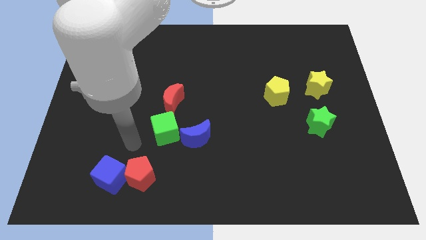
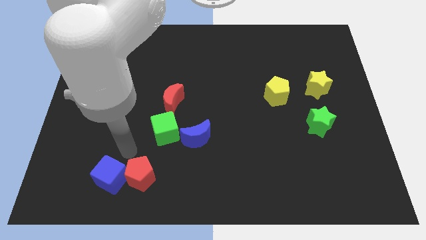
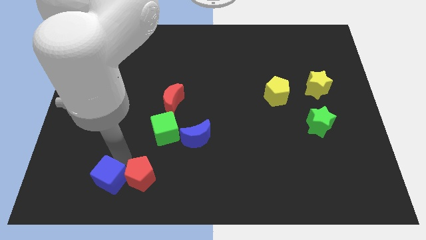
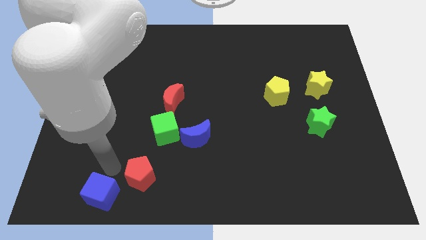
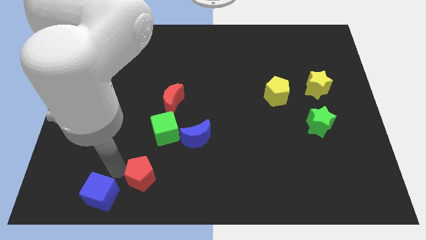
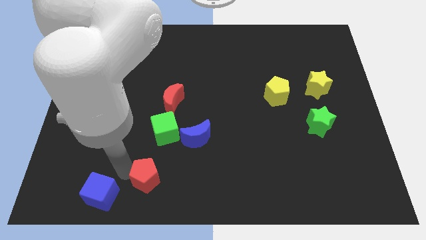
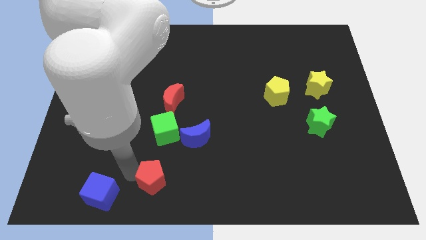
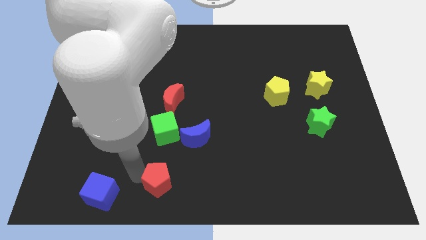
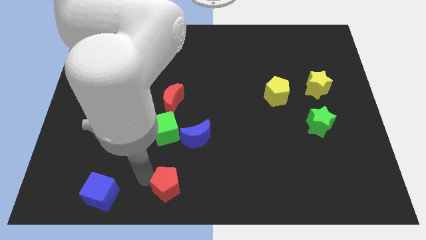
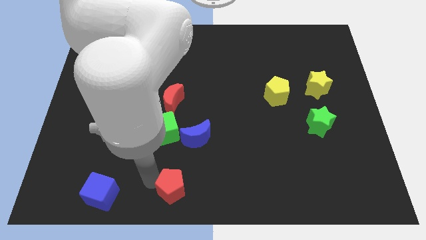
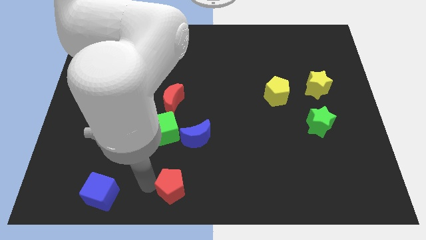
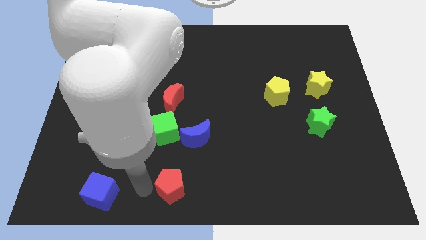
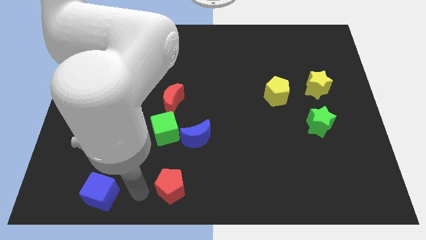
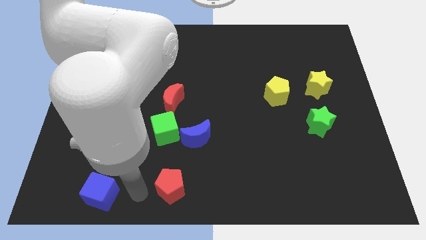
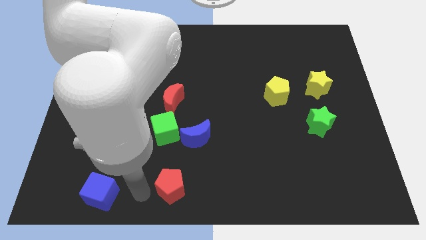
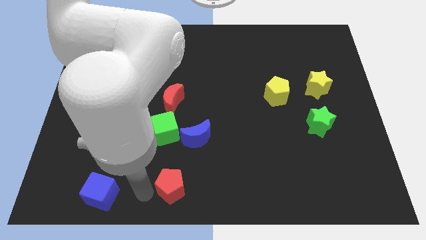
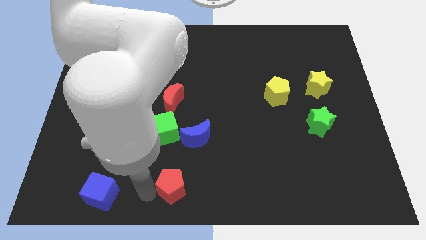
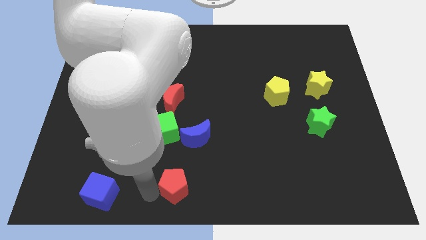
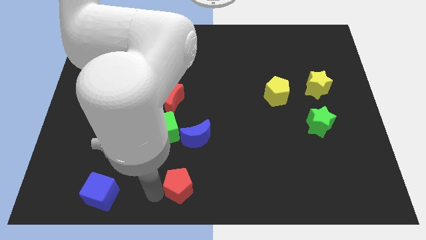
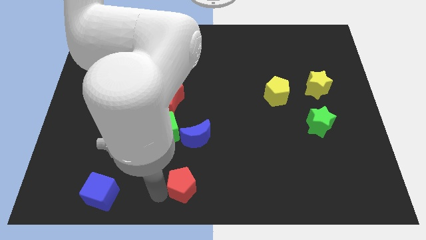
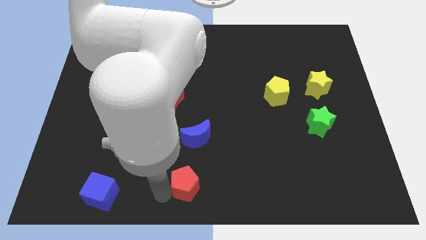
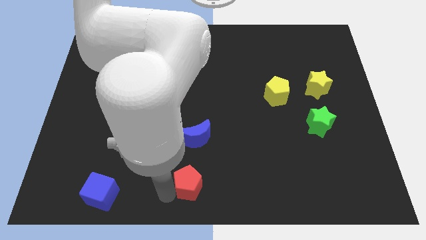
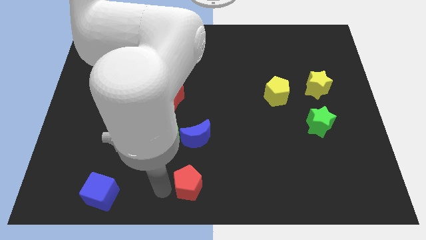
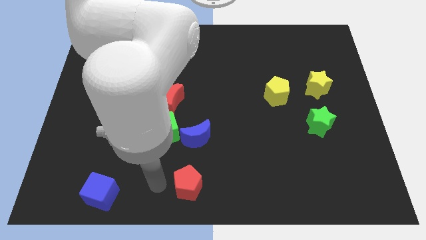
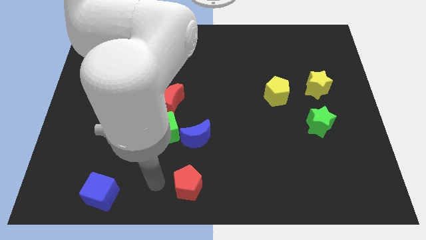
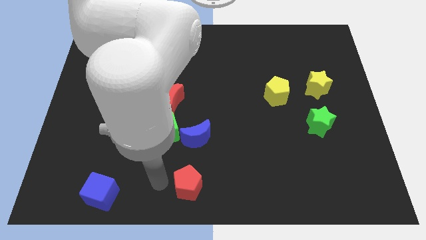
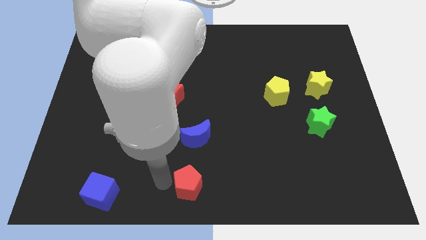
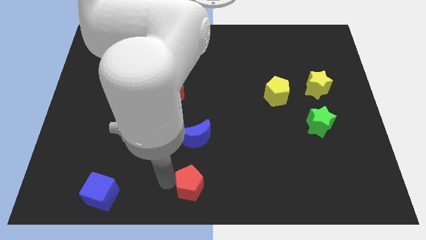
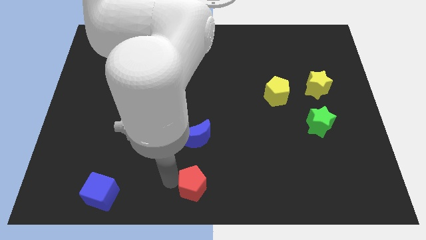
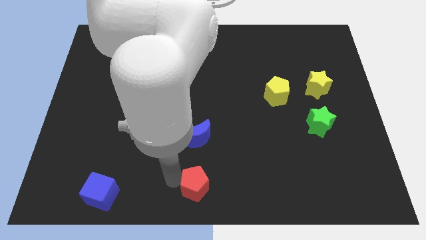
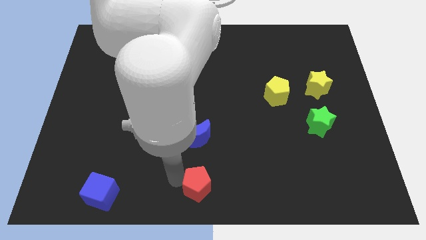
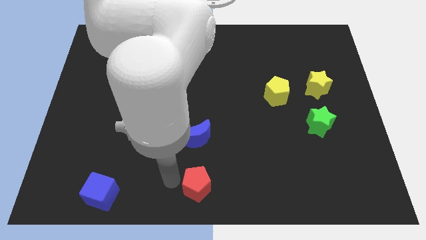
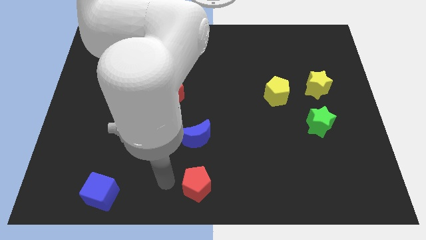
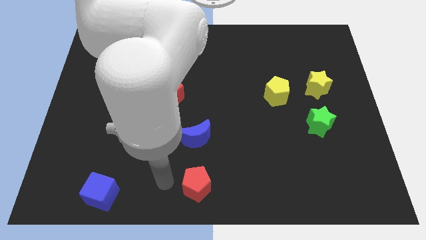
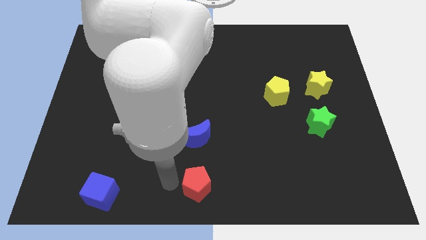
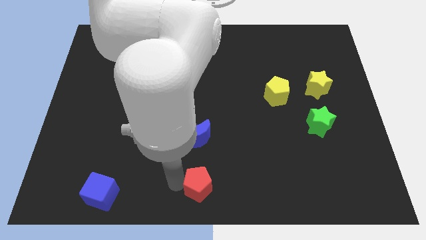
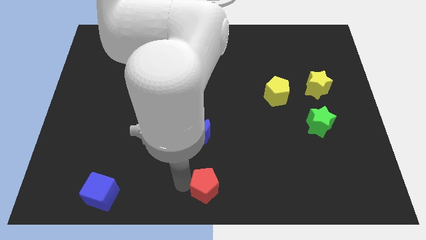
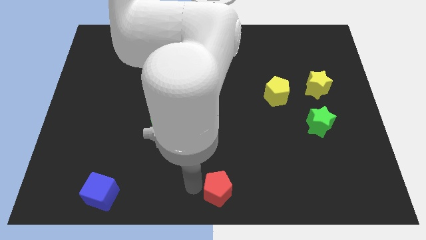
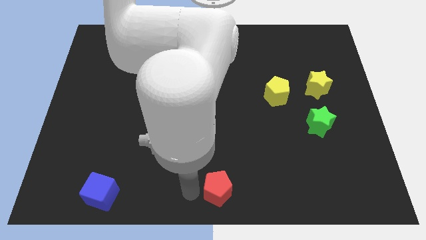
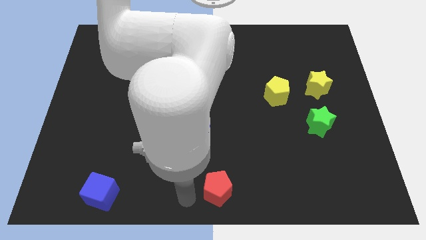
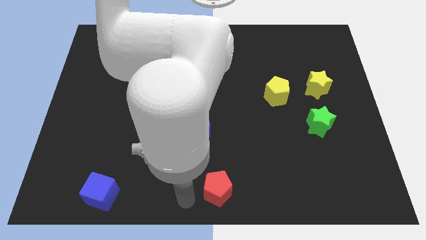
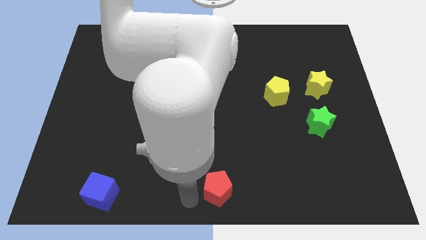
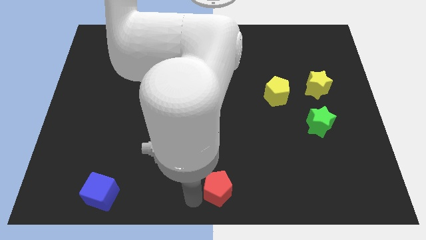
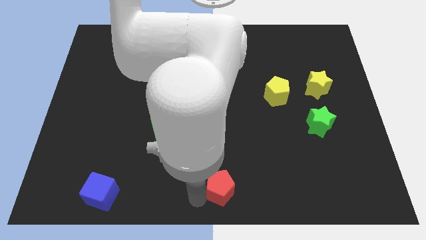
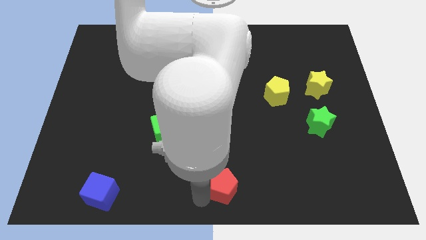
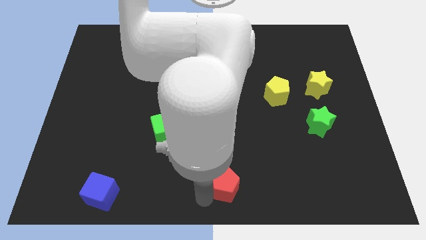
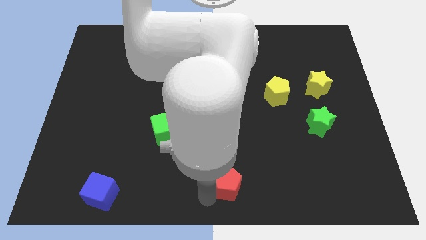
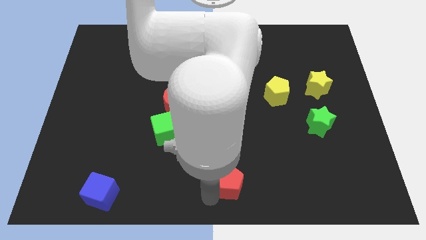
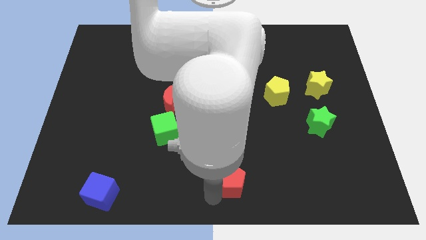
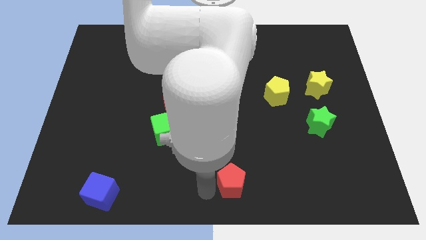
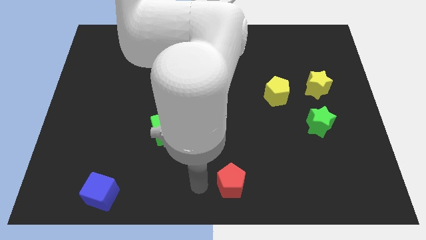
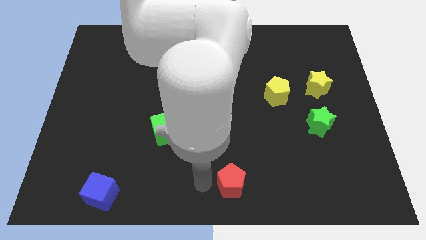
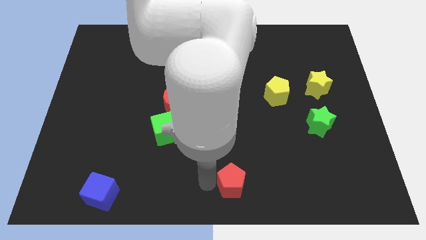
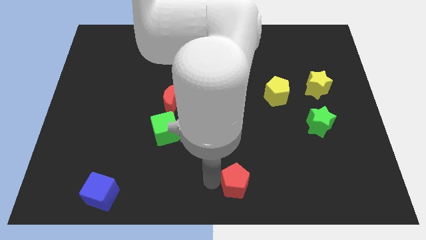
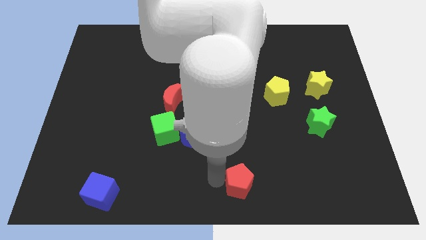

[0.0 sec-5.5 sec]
slide the red pentagon right

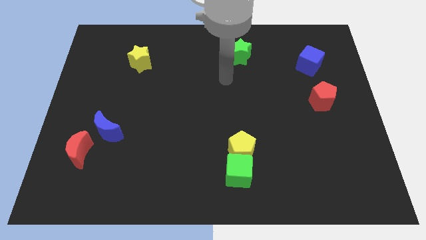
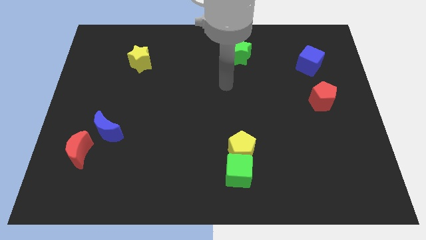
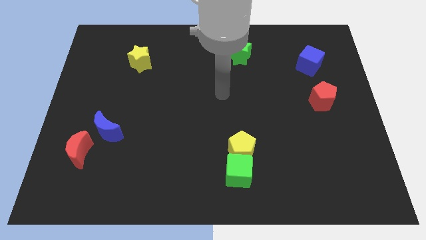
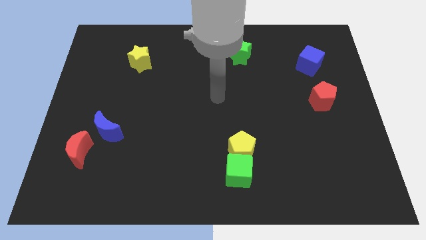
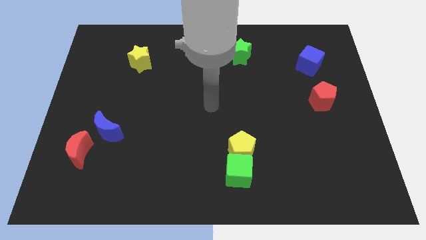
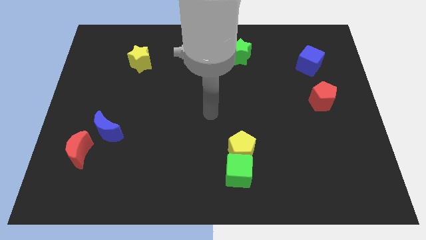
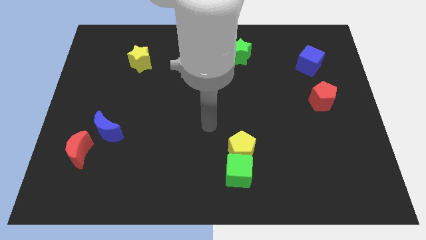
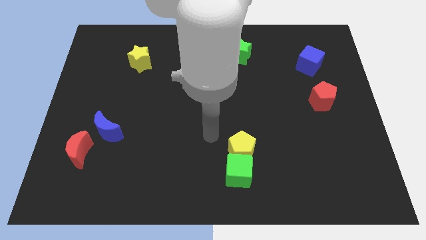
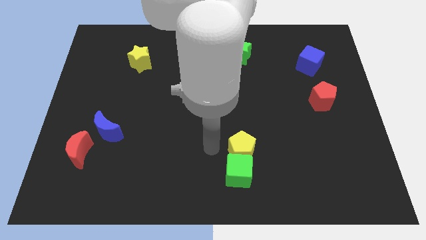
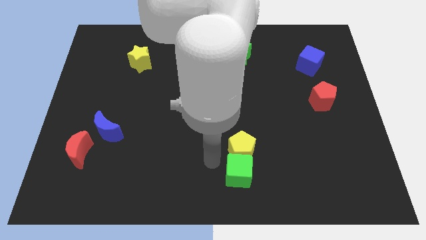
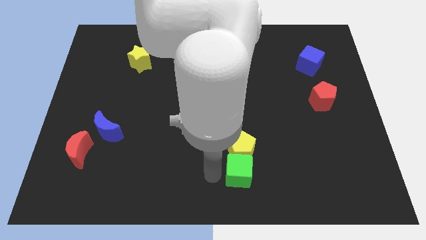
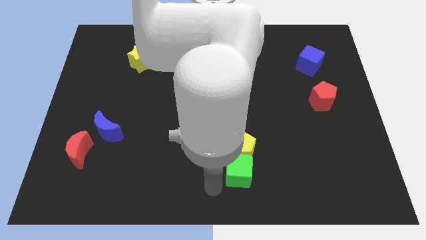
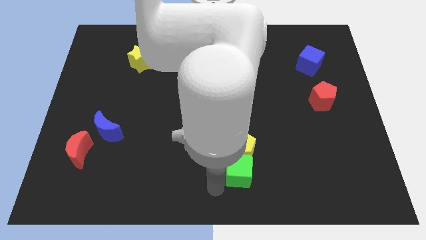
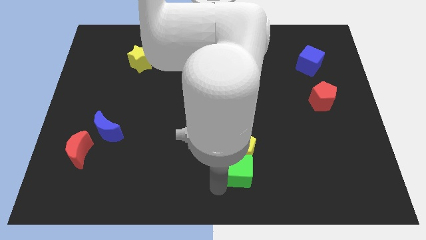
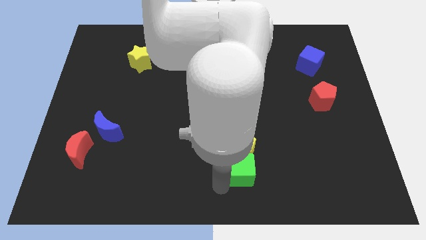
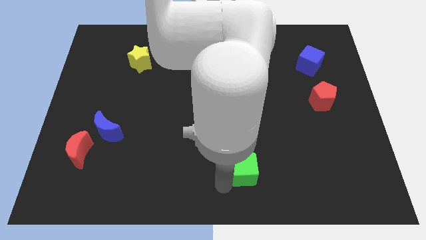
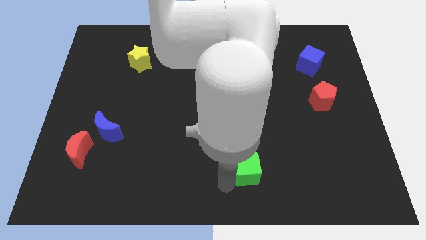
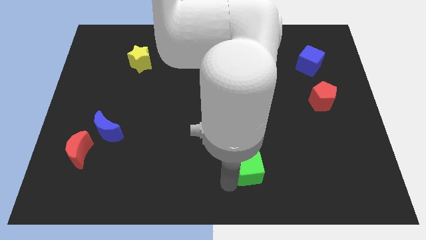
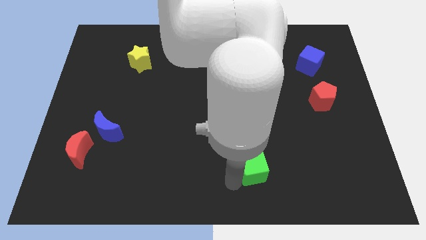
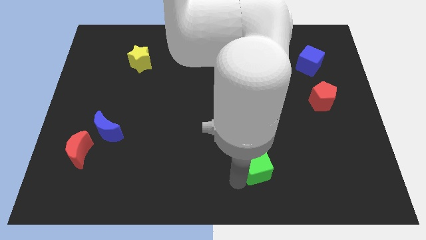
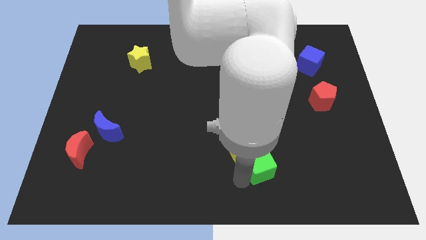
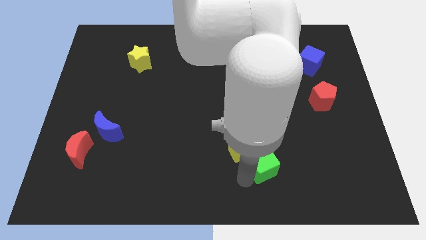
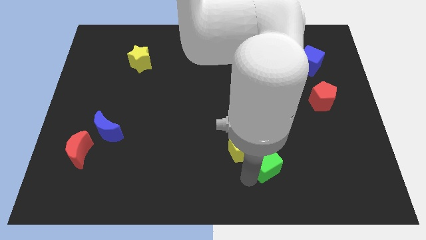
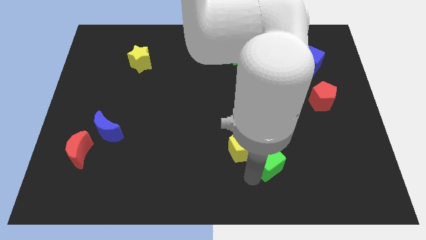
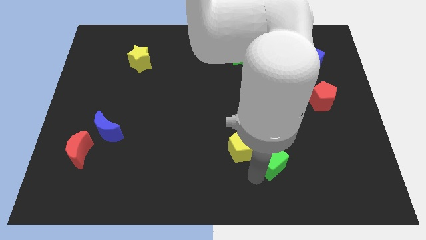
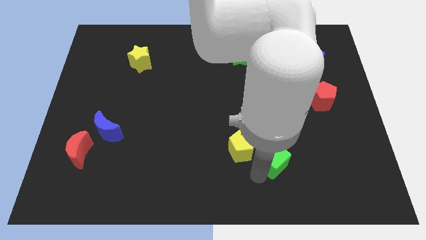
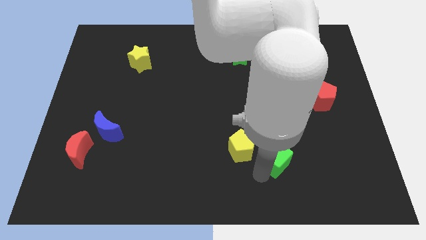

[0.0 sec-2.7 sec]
slide the green cube upwards and to the right a bit
